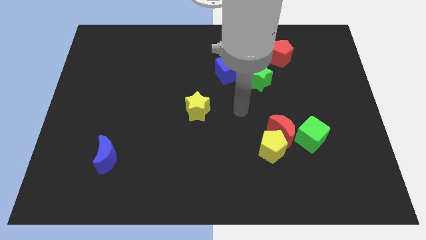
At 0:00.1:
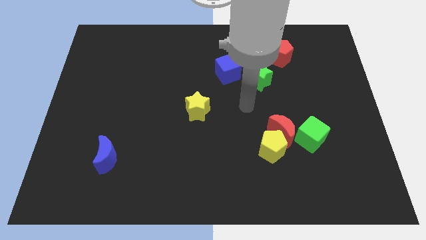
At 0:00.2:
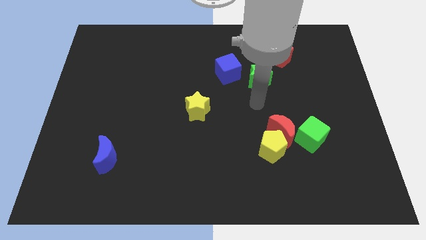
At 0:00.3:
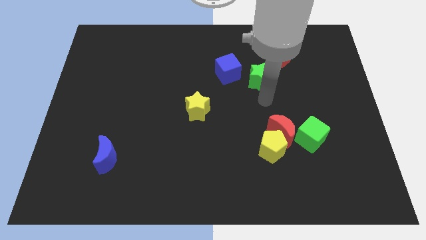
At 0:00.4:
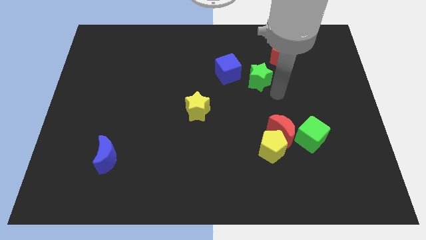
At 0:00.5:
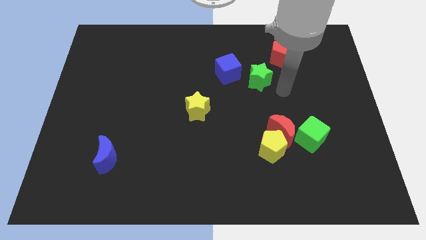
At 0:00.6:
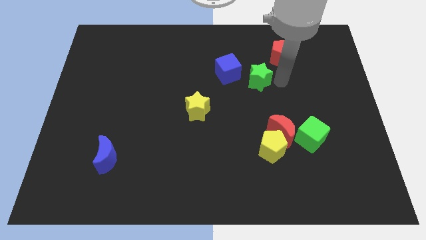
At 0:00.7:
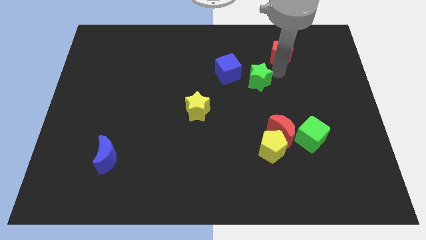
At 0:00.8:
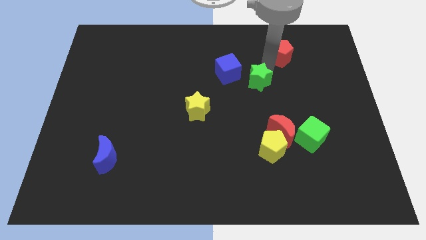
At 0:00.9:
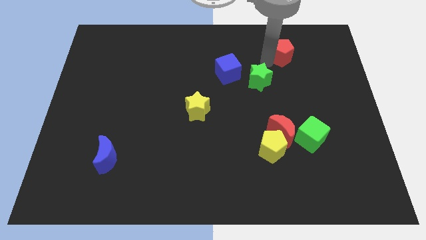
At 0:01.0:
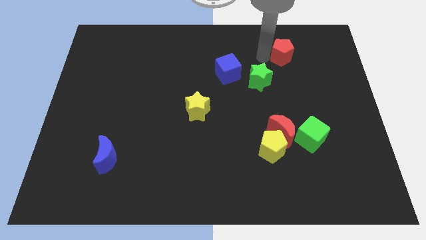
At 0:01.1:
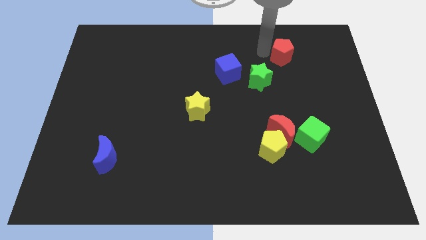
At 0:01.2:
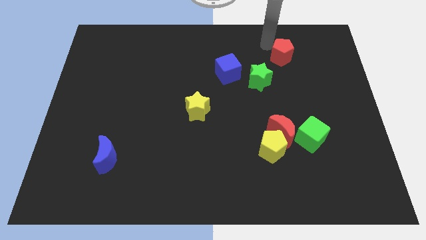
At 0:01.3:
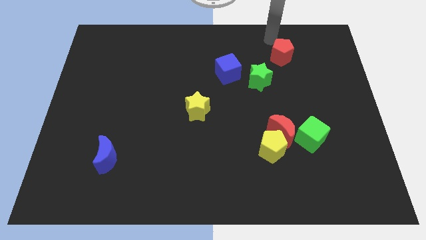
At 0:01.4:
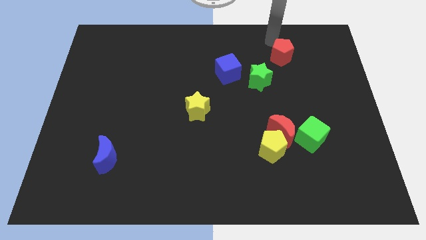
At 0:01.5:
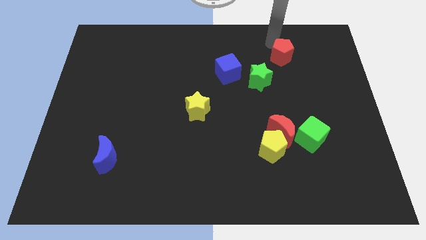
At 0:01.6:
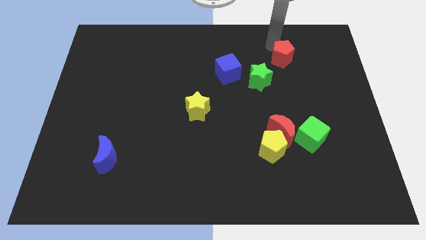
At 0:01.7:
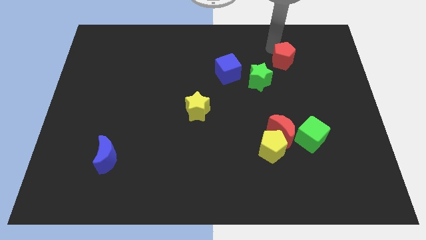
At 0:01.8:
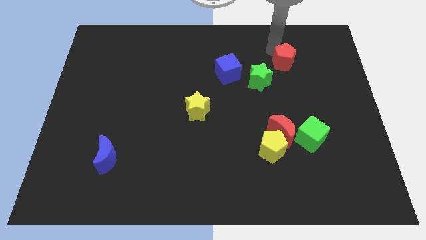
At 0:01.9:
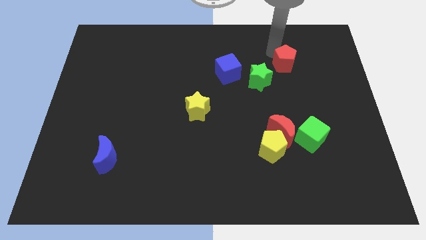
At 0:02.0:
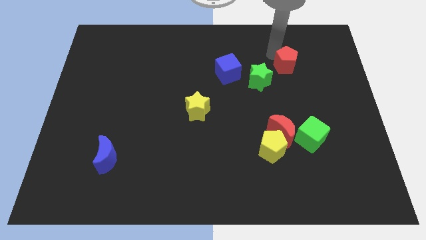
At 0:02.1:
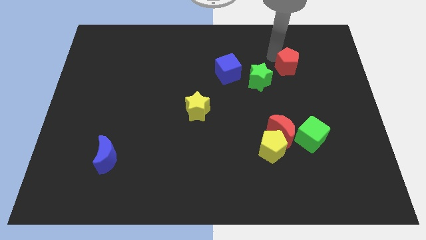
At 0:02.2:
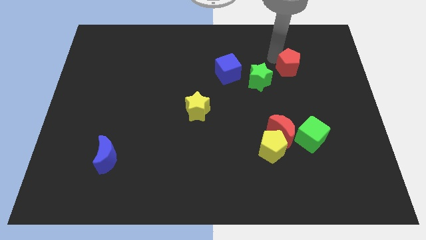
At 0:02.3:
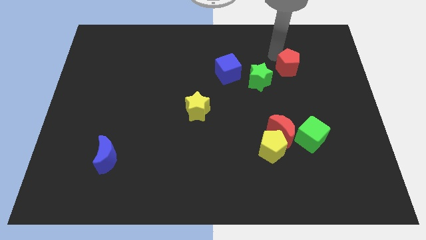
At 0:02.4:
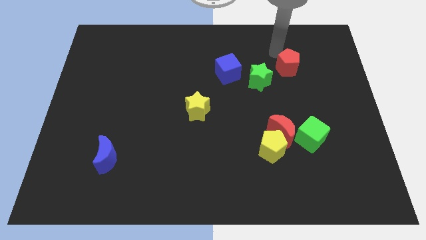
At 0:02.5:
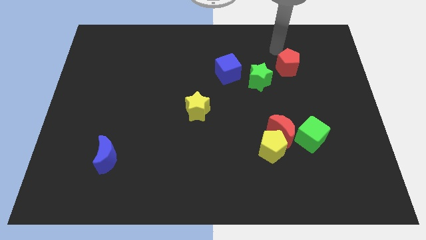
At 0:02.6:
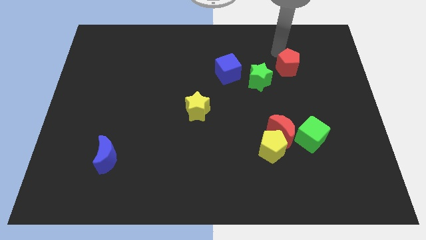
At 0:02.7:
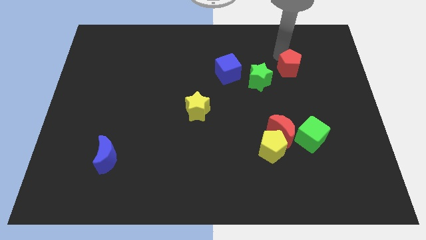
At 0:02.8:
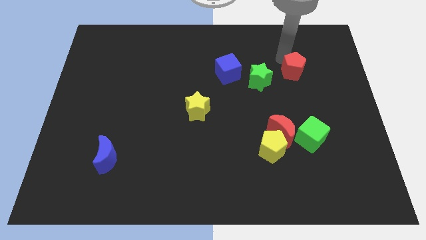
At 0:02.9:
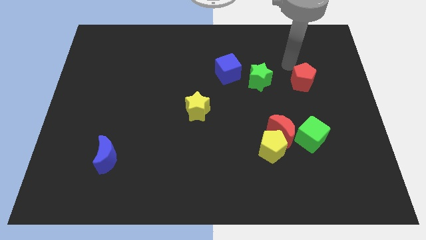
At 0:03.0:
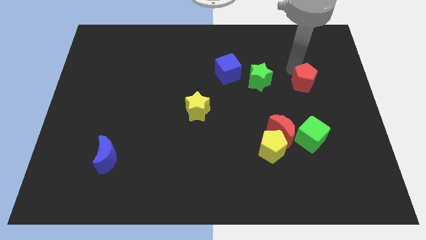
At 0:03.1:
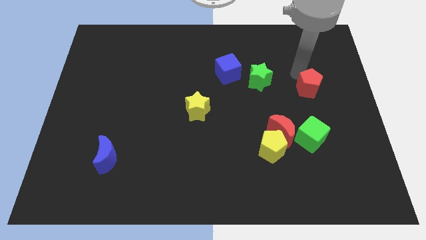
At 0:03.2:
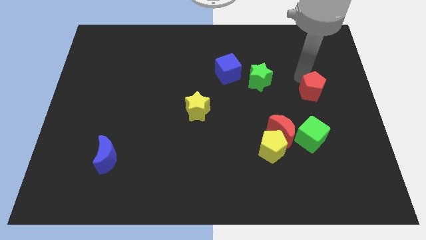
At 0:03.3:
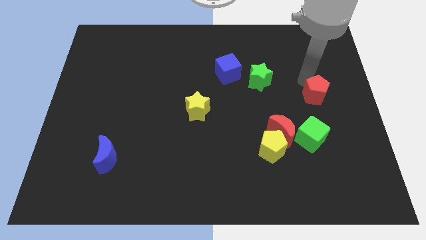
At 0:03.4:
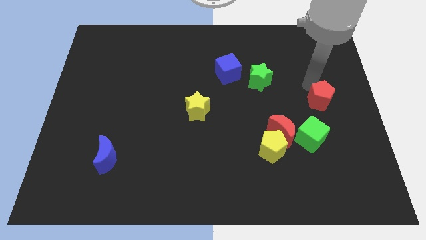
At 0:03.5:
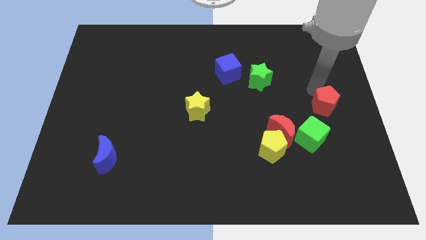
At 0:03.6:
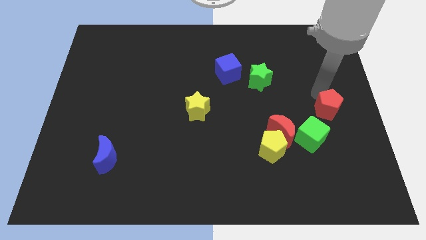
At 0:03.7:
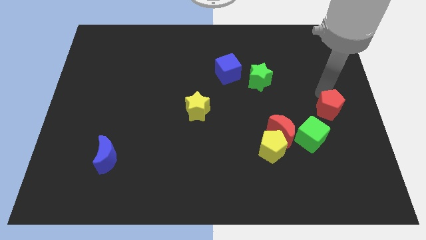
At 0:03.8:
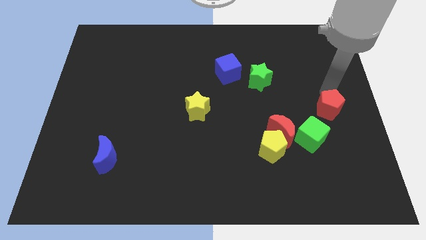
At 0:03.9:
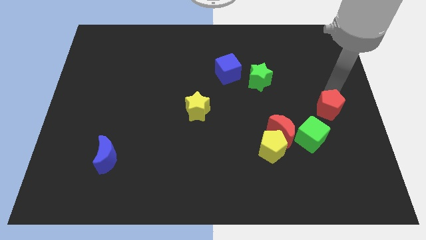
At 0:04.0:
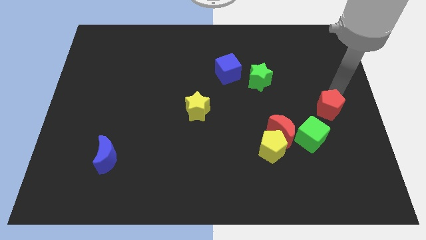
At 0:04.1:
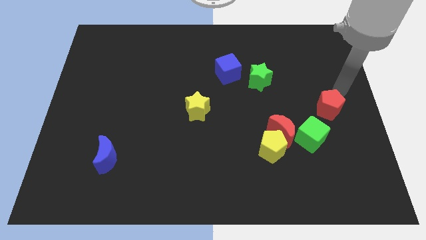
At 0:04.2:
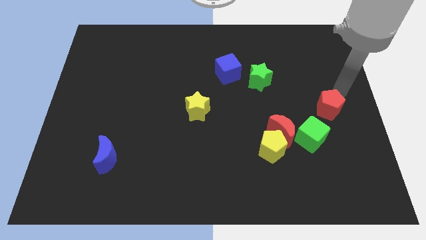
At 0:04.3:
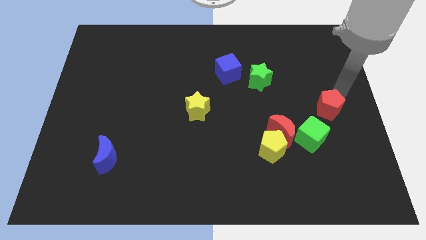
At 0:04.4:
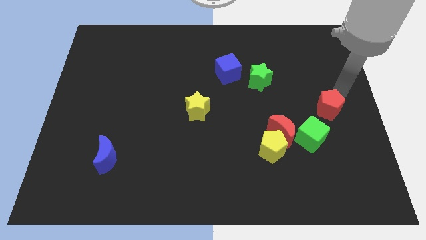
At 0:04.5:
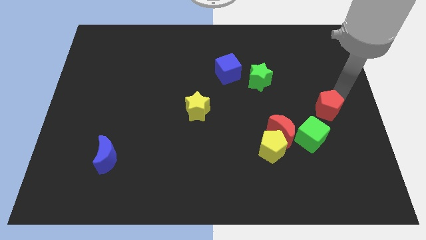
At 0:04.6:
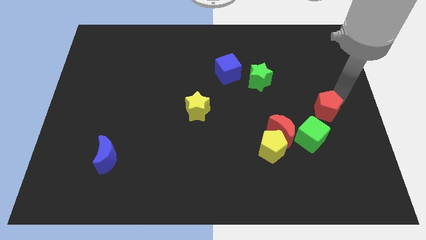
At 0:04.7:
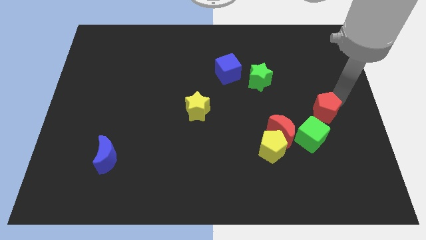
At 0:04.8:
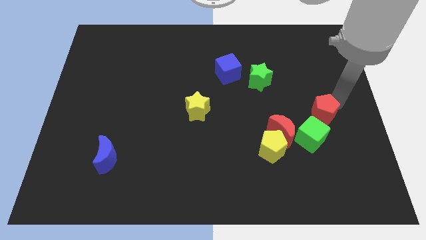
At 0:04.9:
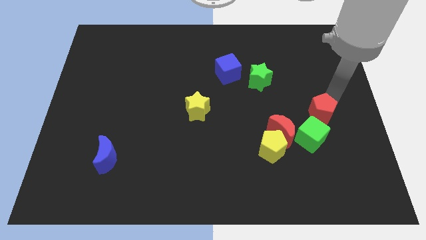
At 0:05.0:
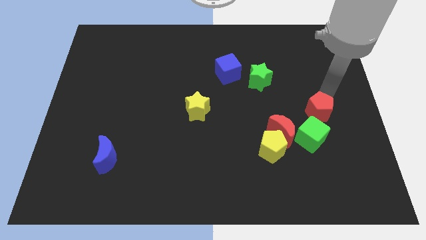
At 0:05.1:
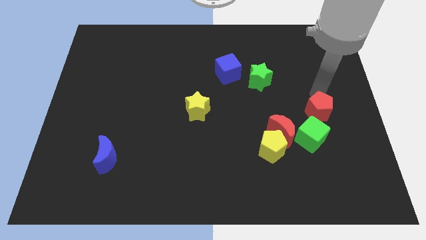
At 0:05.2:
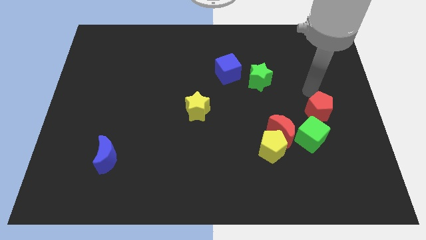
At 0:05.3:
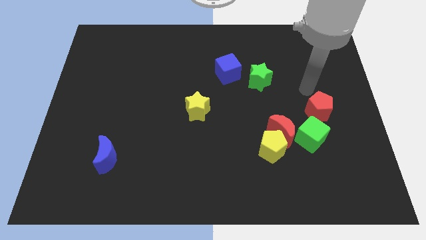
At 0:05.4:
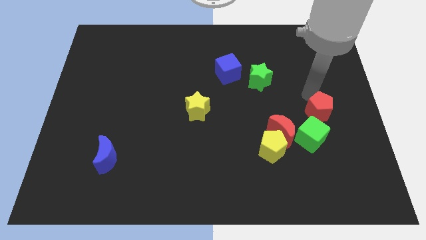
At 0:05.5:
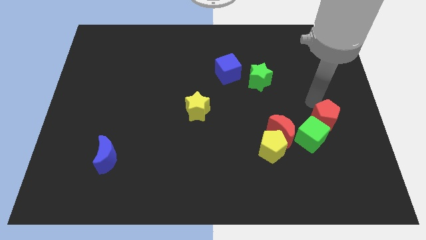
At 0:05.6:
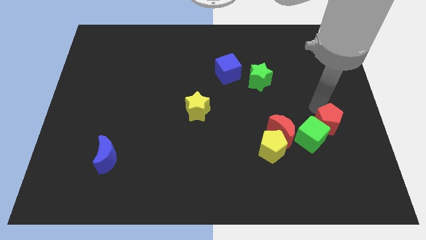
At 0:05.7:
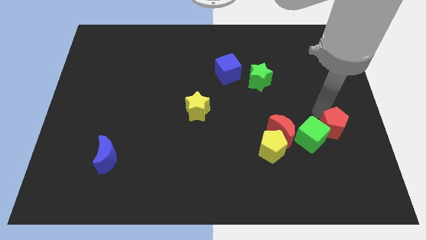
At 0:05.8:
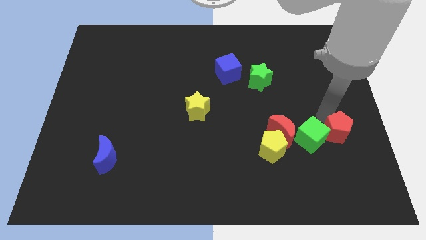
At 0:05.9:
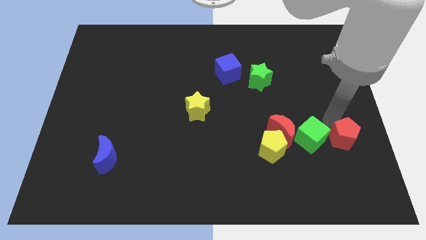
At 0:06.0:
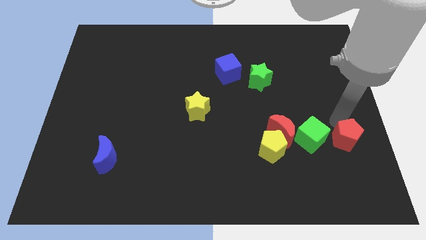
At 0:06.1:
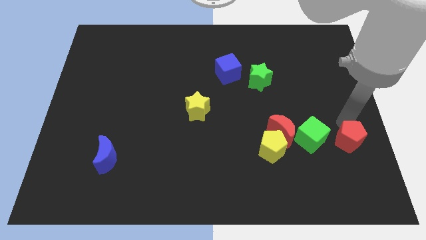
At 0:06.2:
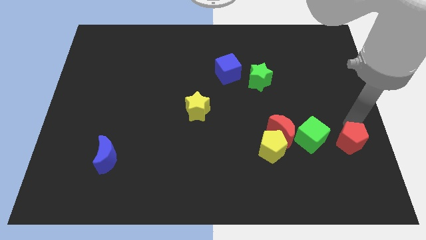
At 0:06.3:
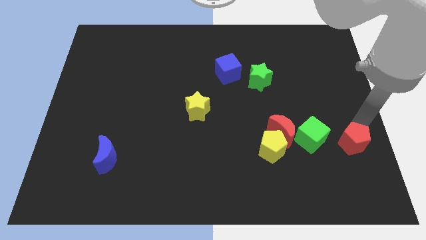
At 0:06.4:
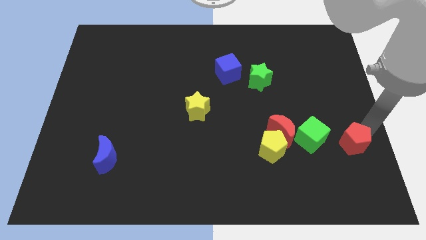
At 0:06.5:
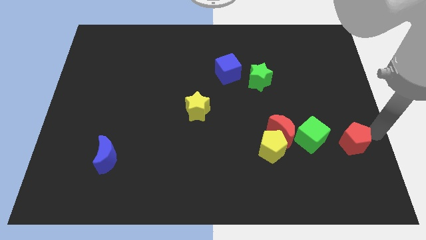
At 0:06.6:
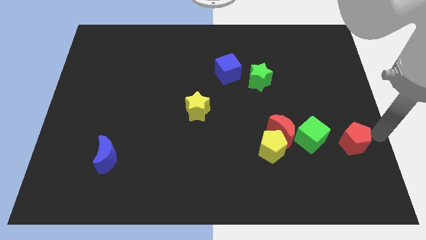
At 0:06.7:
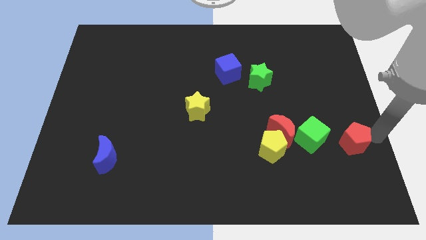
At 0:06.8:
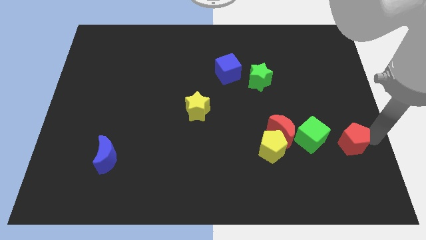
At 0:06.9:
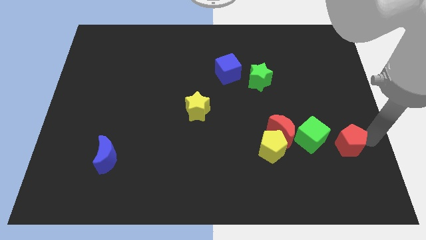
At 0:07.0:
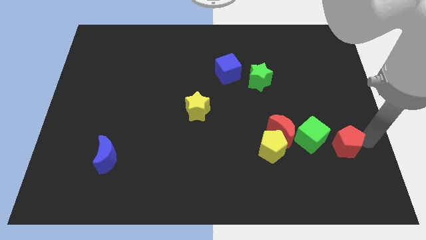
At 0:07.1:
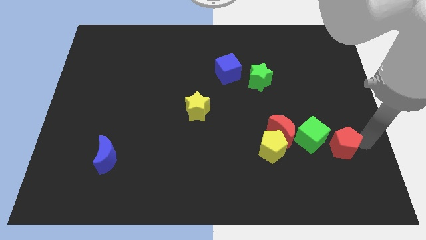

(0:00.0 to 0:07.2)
put the red pentagon to the right of the yellow pentagon
